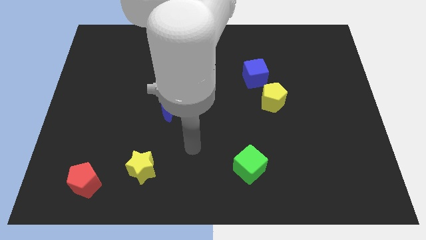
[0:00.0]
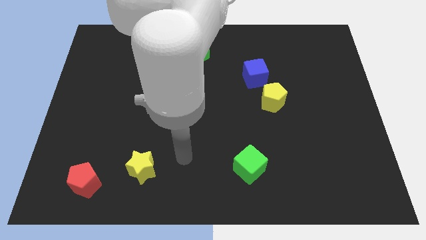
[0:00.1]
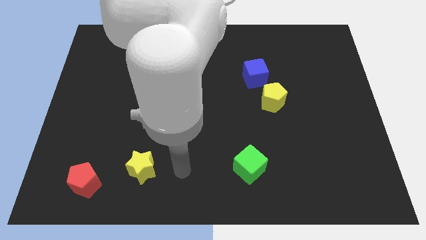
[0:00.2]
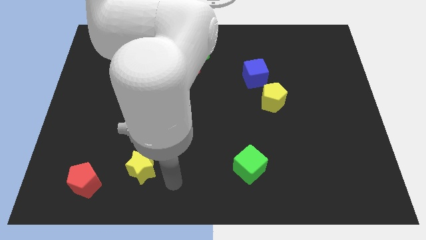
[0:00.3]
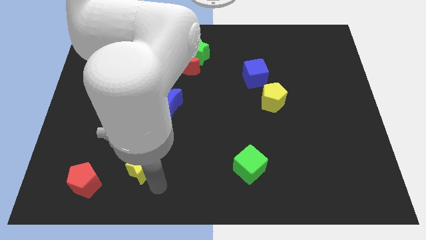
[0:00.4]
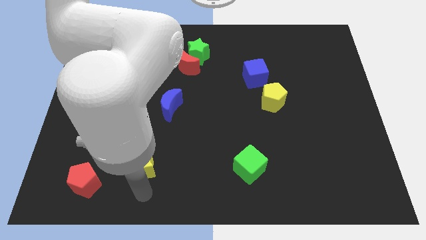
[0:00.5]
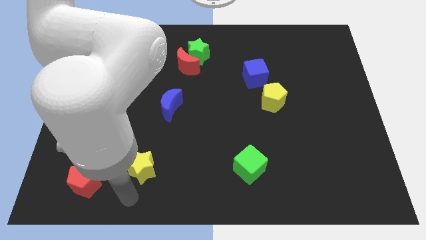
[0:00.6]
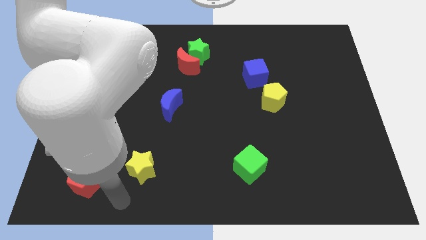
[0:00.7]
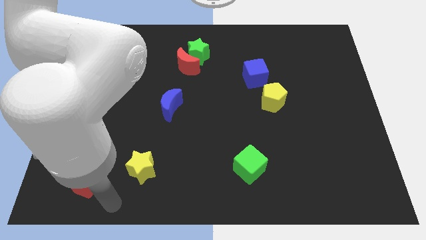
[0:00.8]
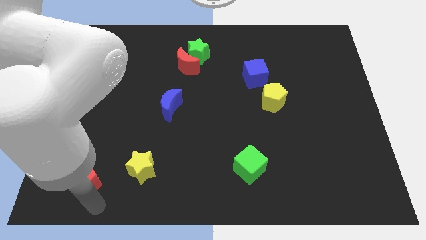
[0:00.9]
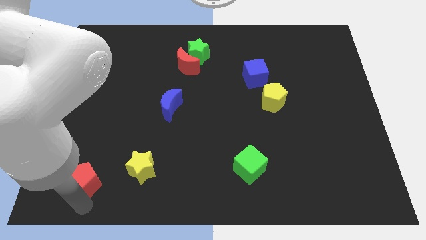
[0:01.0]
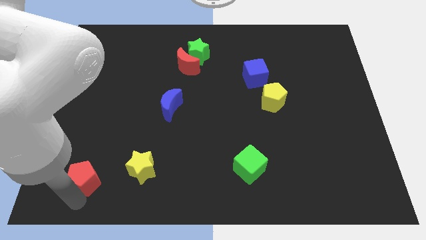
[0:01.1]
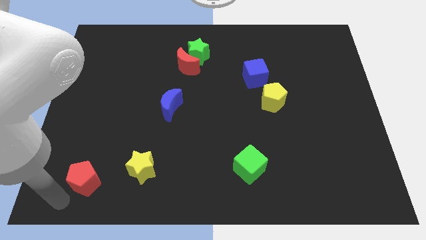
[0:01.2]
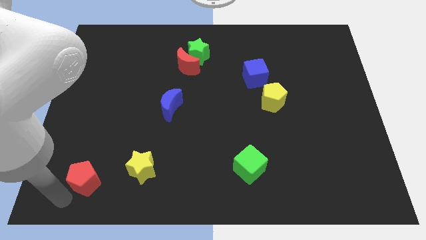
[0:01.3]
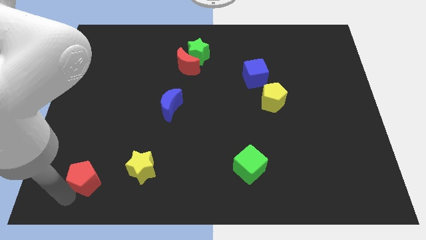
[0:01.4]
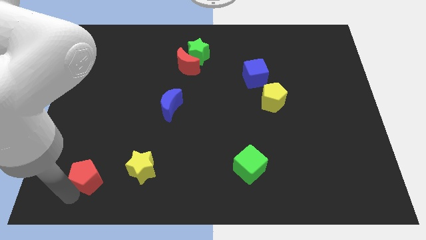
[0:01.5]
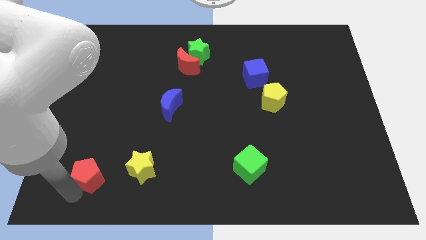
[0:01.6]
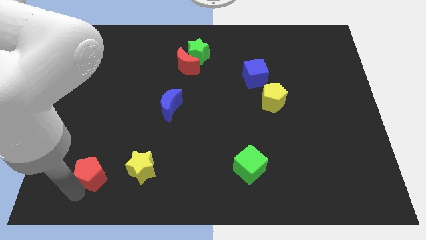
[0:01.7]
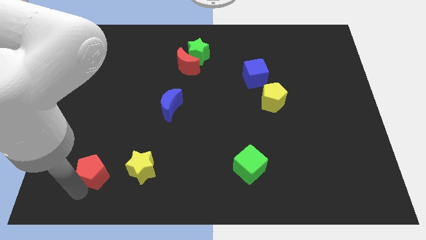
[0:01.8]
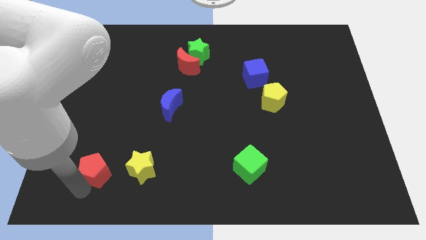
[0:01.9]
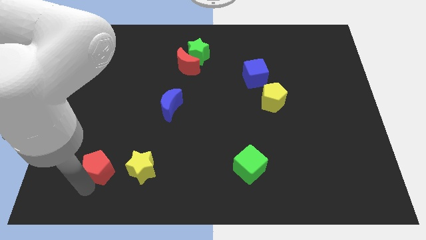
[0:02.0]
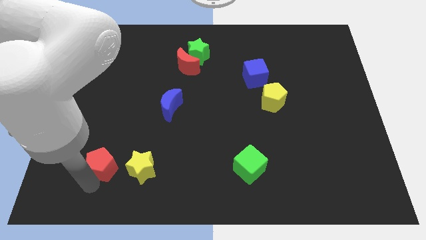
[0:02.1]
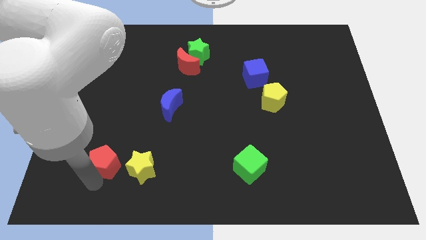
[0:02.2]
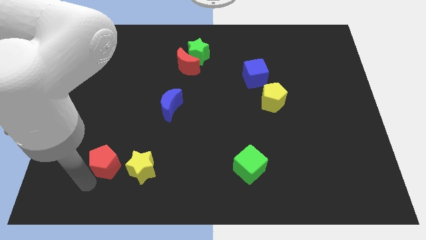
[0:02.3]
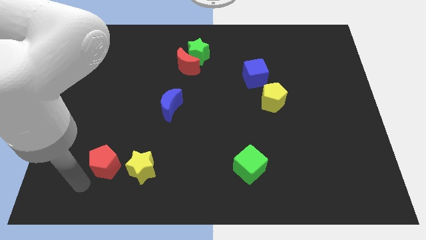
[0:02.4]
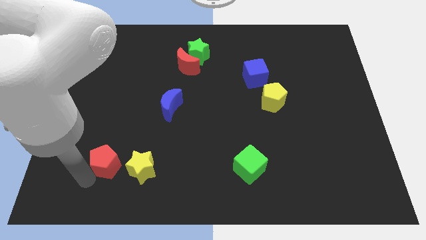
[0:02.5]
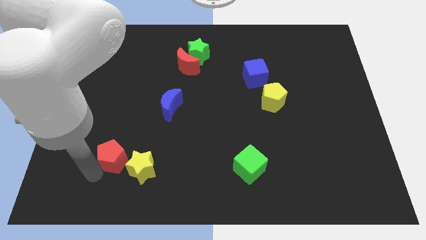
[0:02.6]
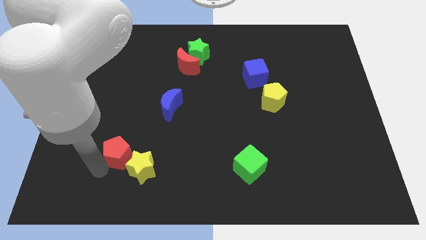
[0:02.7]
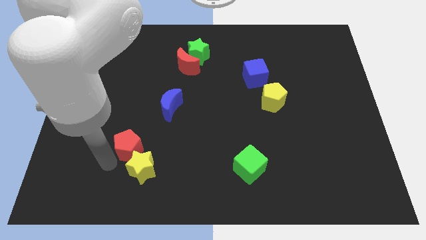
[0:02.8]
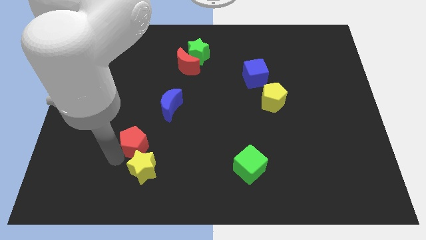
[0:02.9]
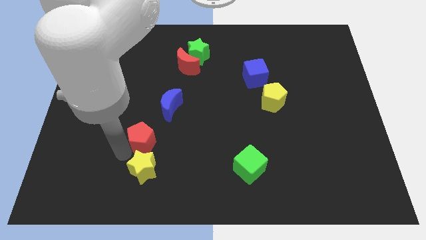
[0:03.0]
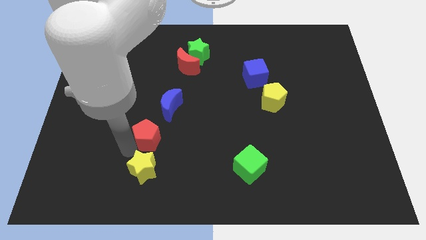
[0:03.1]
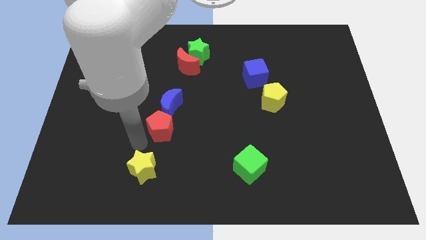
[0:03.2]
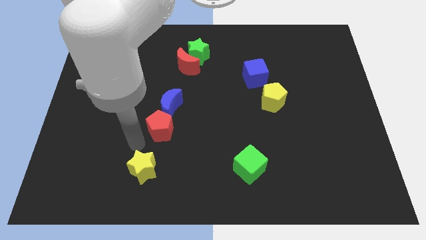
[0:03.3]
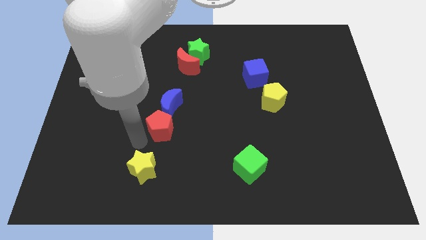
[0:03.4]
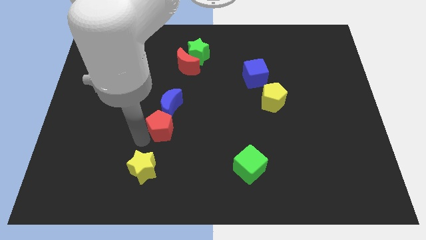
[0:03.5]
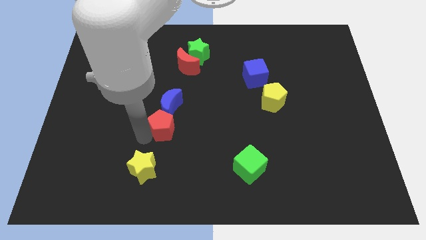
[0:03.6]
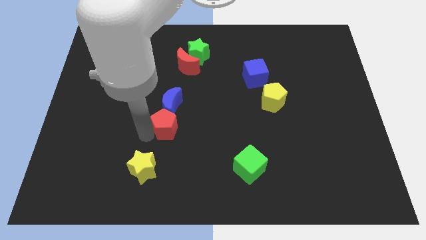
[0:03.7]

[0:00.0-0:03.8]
move the red pentagon up and then to the right

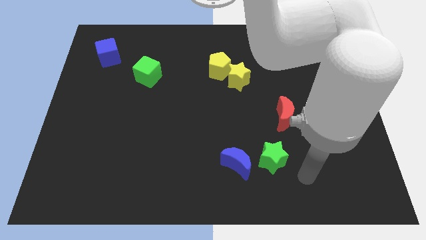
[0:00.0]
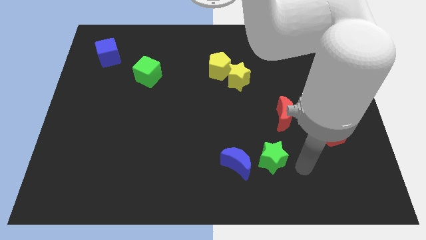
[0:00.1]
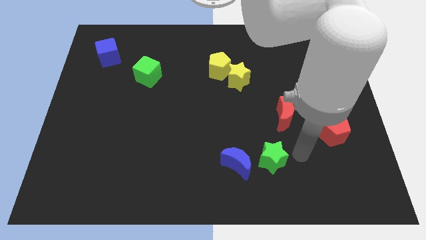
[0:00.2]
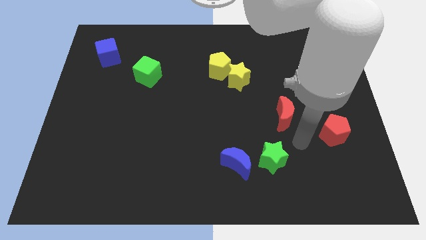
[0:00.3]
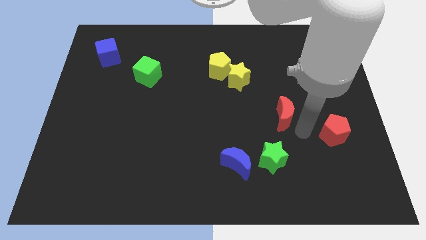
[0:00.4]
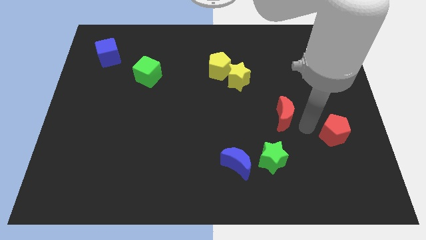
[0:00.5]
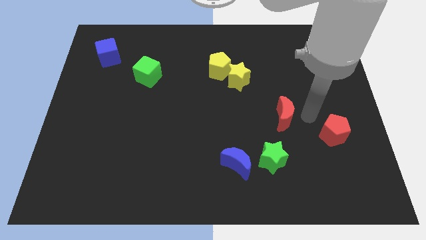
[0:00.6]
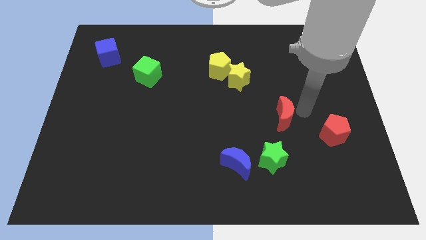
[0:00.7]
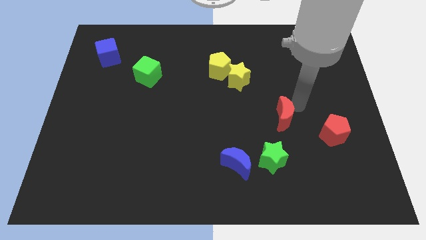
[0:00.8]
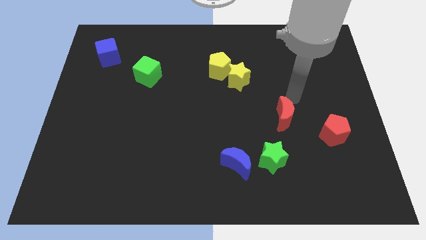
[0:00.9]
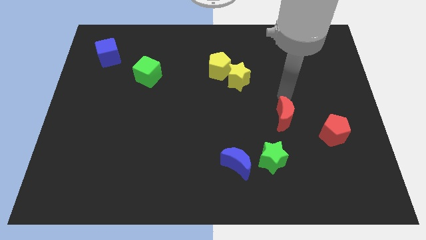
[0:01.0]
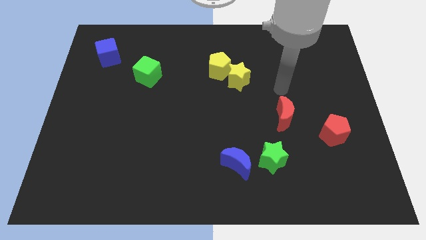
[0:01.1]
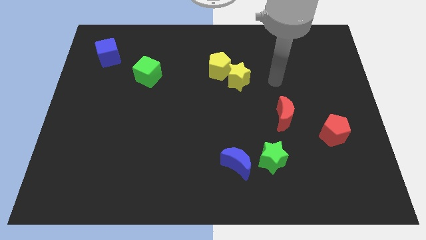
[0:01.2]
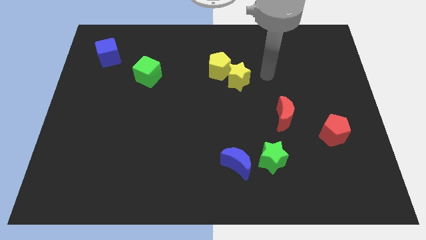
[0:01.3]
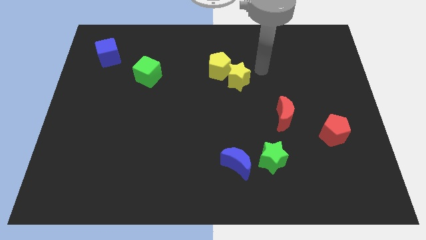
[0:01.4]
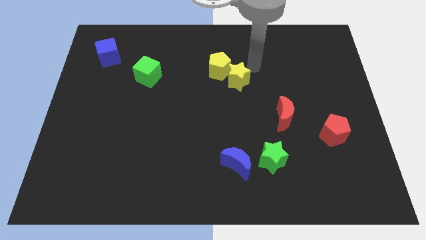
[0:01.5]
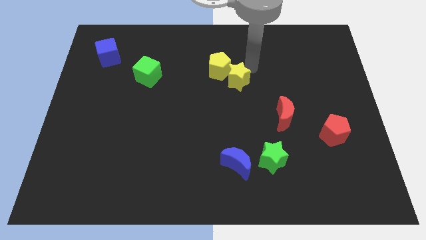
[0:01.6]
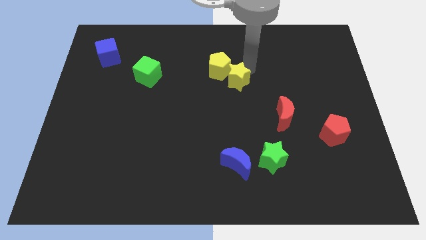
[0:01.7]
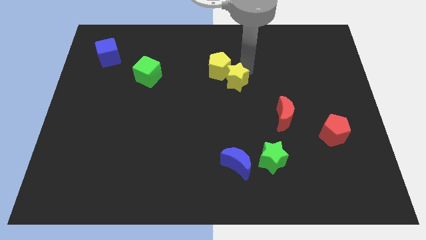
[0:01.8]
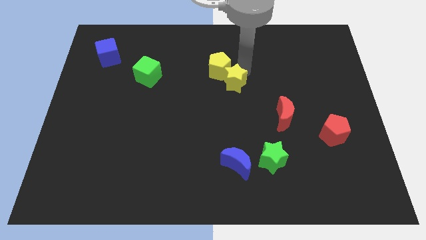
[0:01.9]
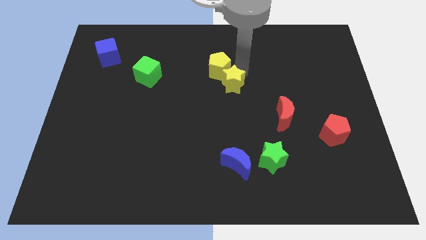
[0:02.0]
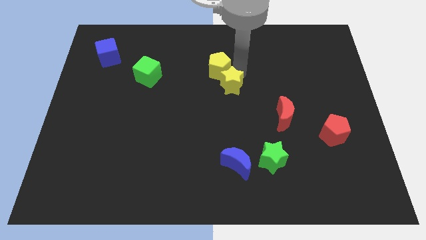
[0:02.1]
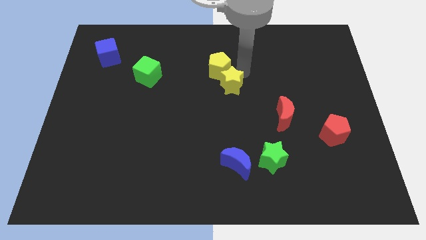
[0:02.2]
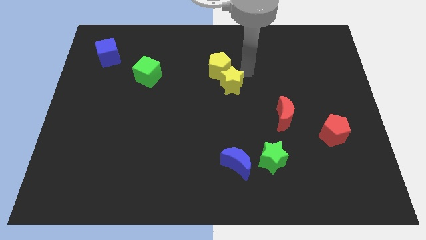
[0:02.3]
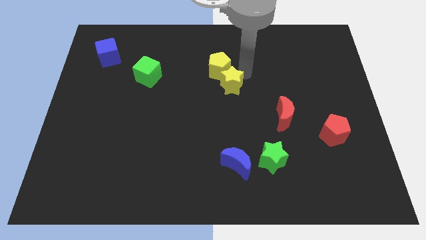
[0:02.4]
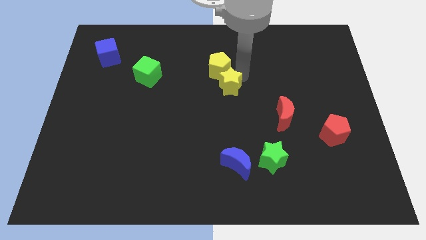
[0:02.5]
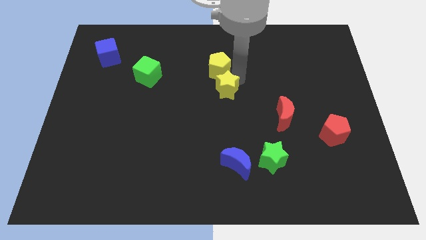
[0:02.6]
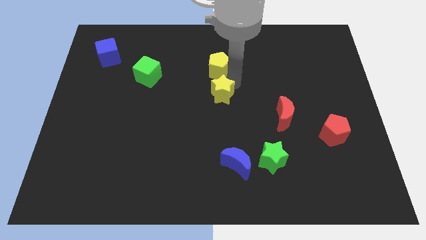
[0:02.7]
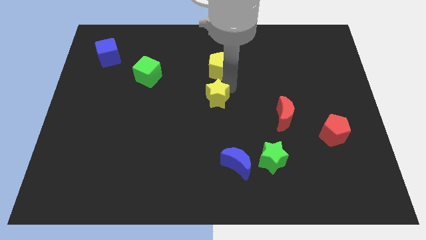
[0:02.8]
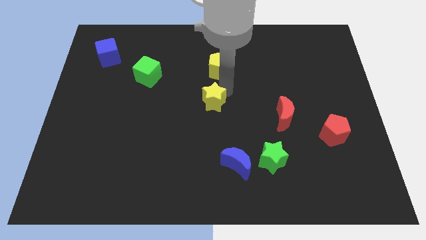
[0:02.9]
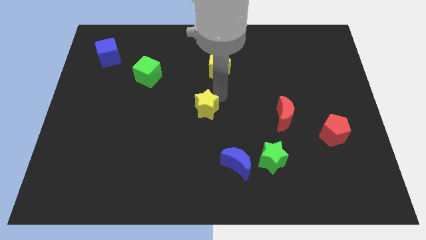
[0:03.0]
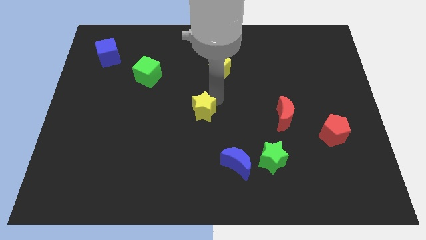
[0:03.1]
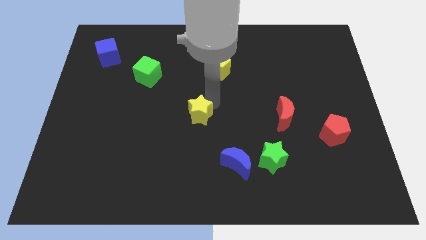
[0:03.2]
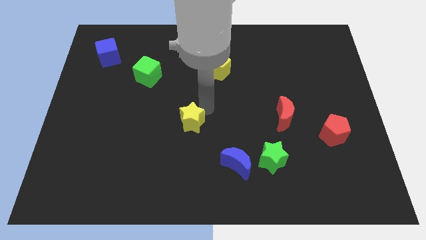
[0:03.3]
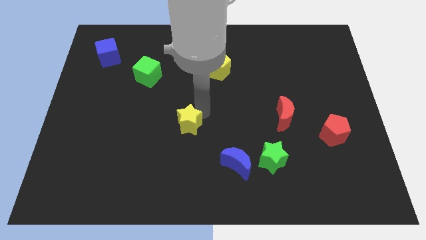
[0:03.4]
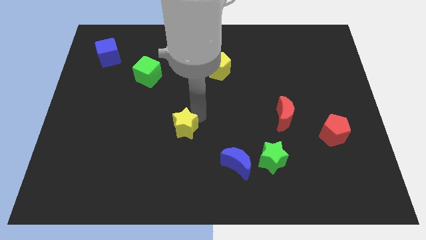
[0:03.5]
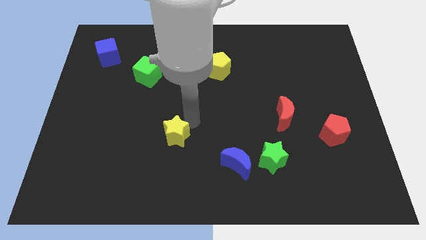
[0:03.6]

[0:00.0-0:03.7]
push the yellow star downwards and to the left

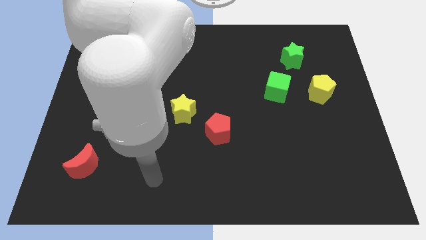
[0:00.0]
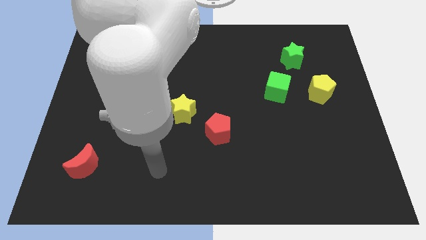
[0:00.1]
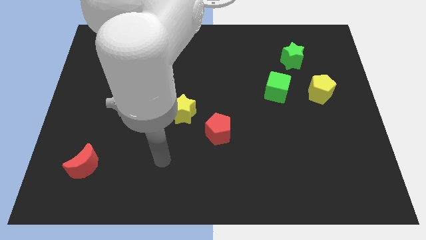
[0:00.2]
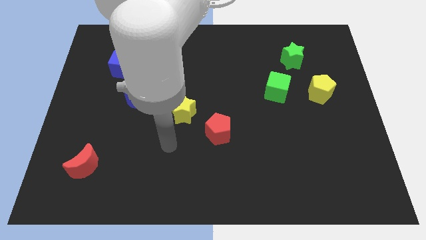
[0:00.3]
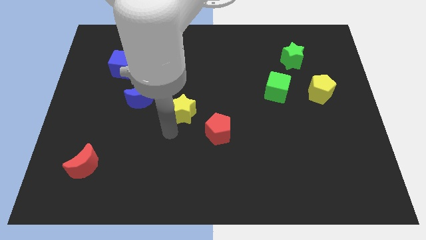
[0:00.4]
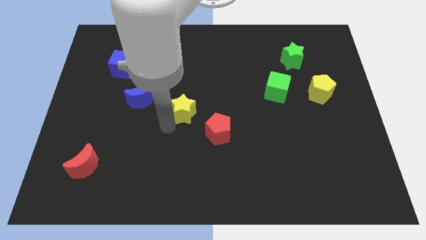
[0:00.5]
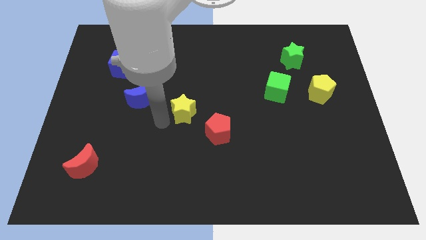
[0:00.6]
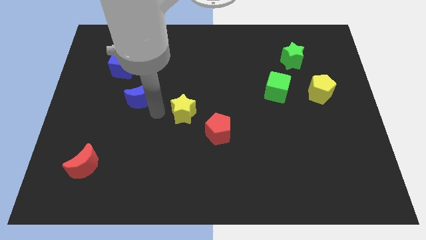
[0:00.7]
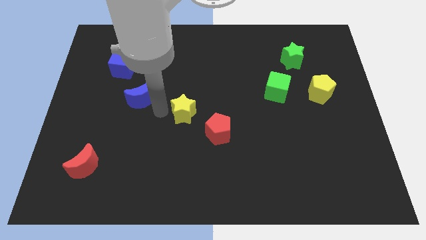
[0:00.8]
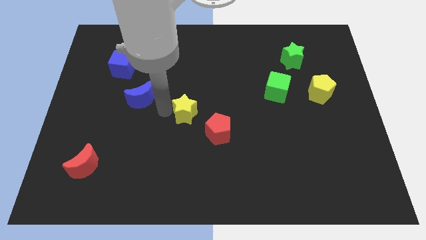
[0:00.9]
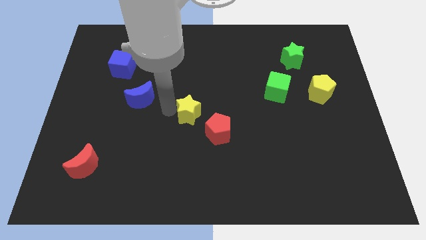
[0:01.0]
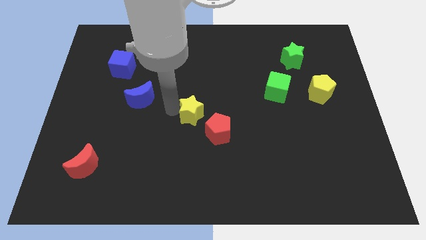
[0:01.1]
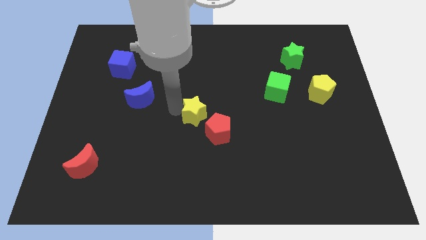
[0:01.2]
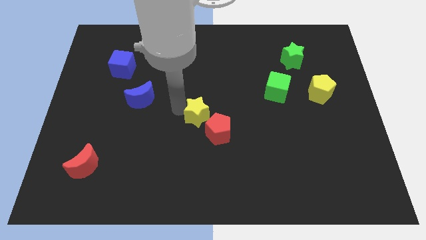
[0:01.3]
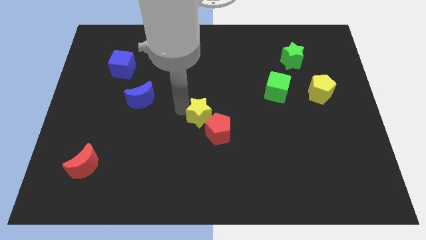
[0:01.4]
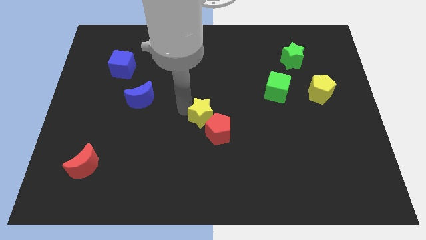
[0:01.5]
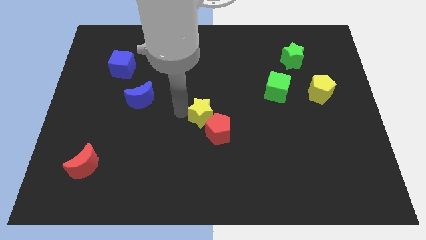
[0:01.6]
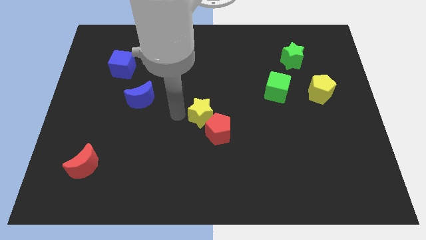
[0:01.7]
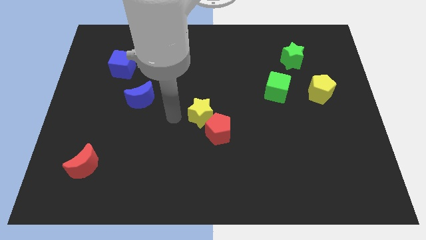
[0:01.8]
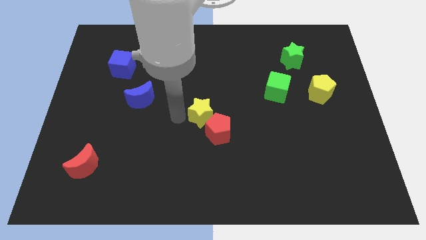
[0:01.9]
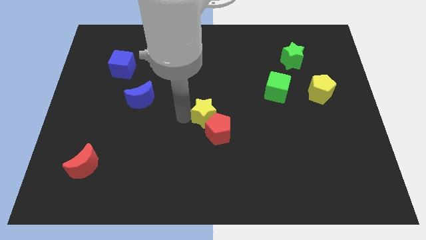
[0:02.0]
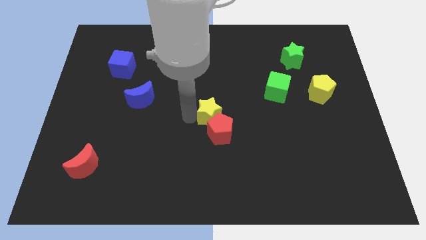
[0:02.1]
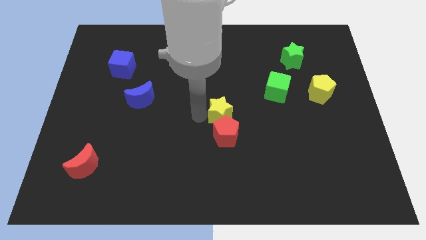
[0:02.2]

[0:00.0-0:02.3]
move the yellow star to the right a little bit
